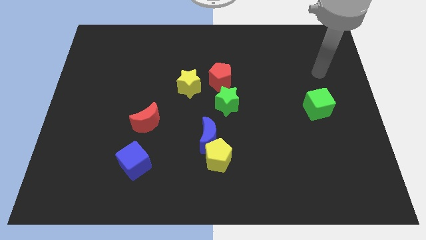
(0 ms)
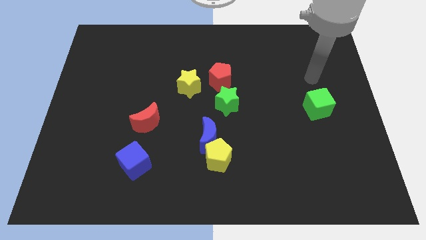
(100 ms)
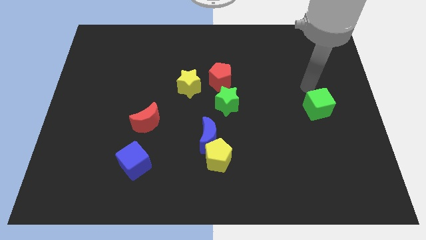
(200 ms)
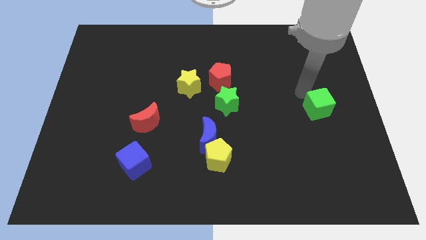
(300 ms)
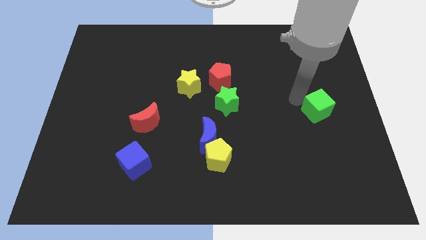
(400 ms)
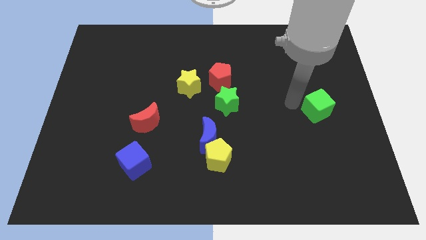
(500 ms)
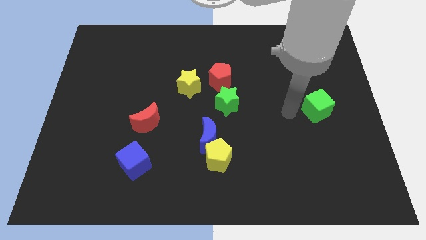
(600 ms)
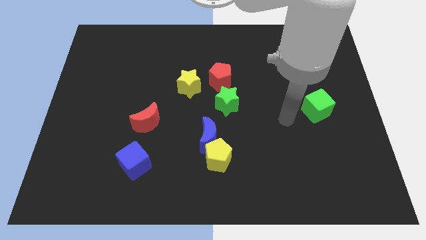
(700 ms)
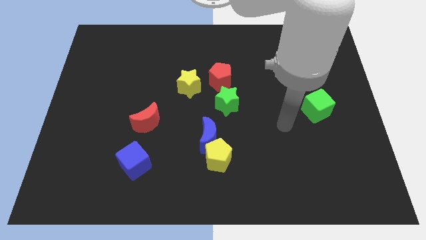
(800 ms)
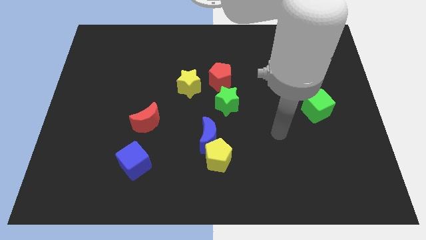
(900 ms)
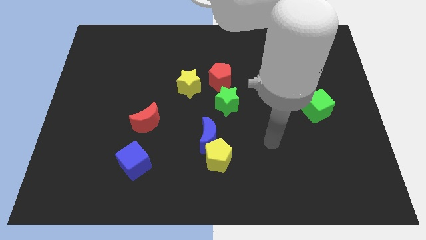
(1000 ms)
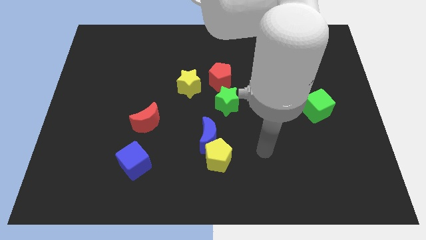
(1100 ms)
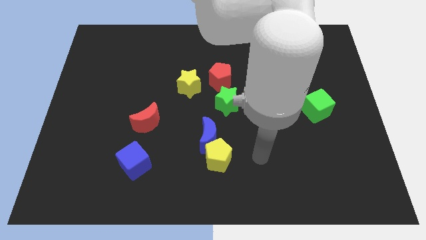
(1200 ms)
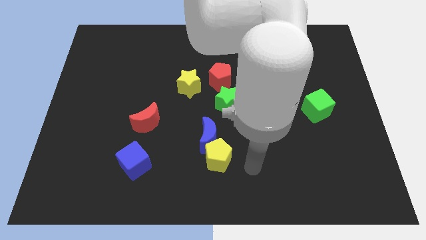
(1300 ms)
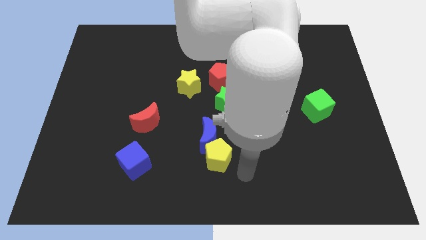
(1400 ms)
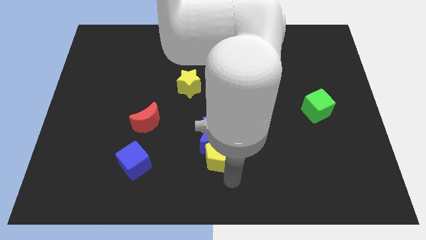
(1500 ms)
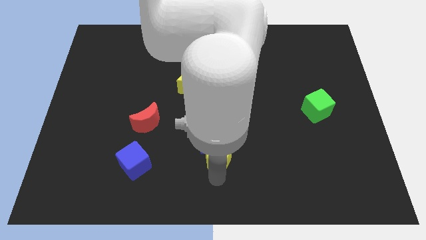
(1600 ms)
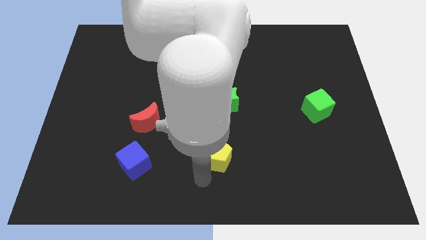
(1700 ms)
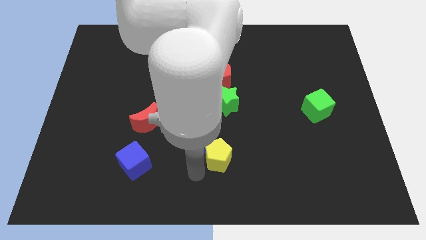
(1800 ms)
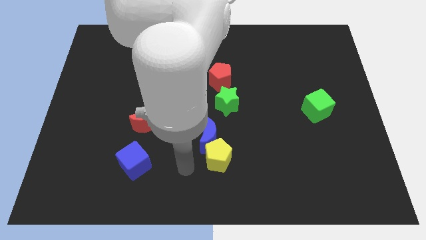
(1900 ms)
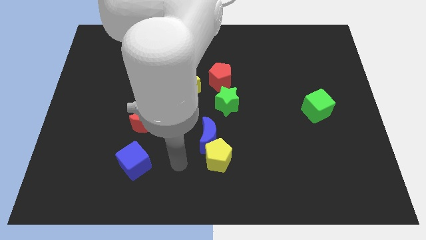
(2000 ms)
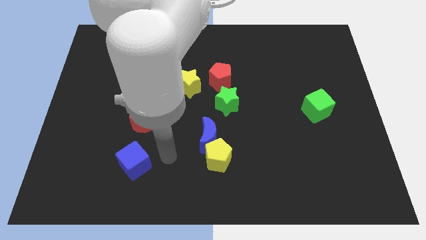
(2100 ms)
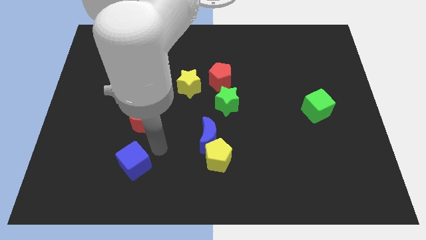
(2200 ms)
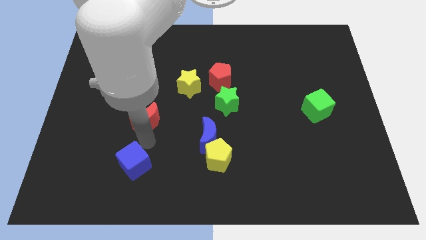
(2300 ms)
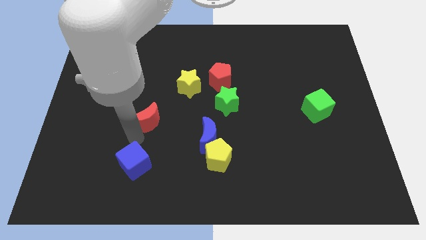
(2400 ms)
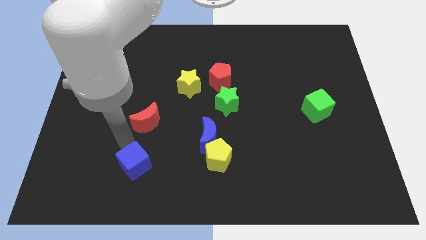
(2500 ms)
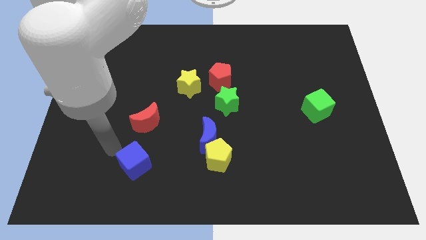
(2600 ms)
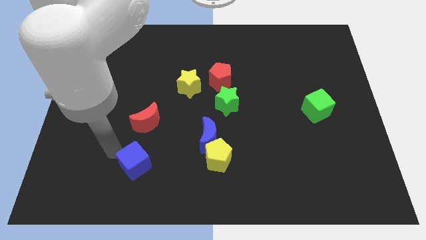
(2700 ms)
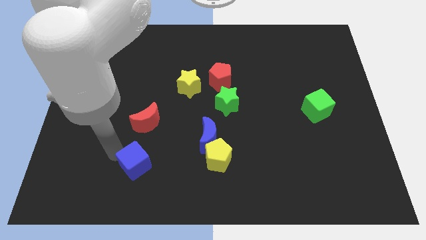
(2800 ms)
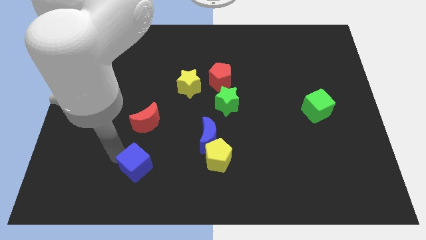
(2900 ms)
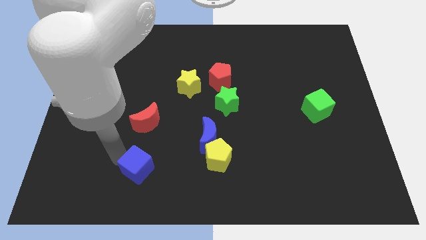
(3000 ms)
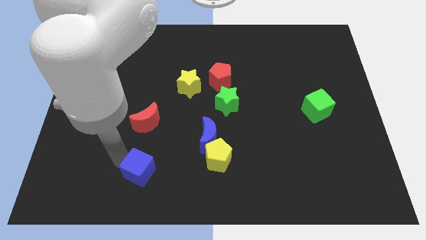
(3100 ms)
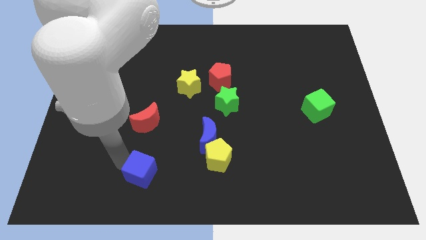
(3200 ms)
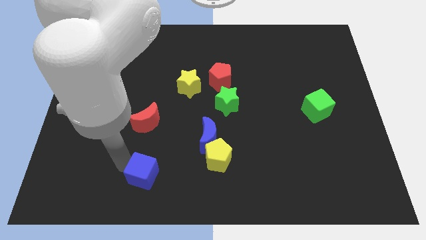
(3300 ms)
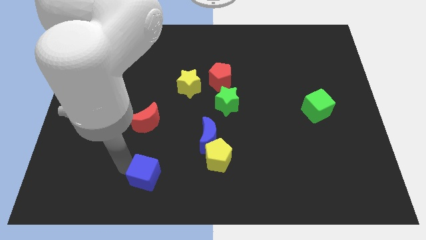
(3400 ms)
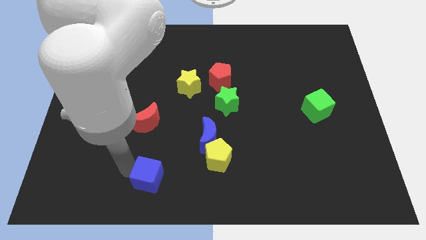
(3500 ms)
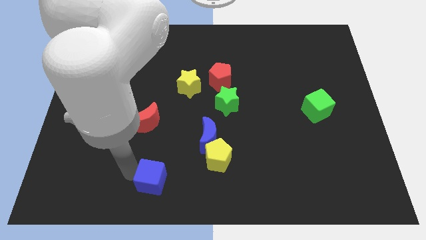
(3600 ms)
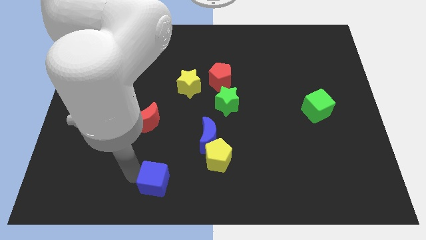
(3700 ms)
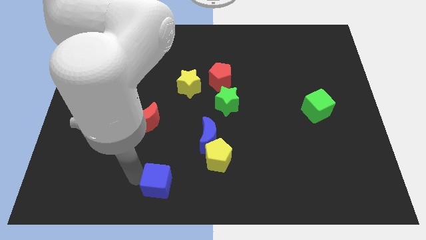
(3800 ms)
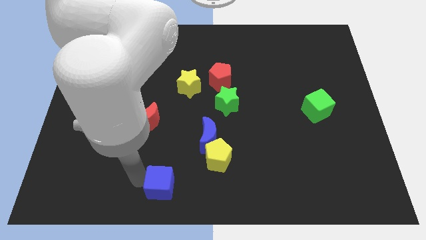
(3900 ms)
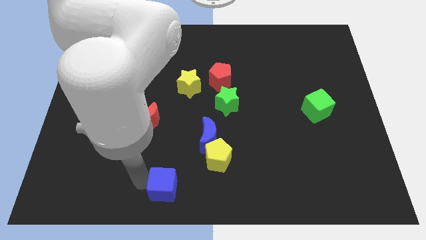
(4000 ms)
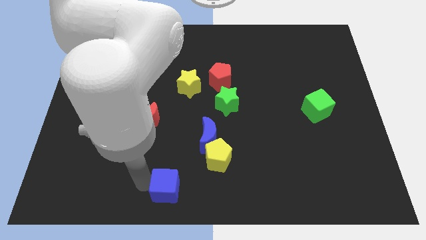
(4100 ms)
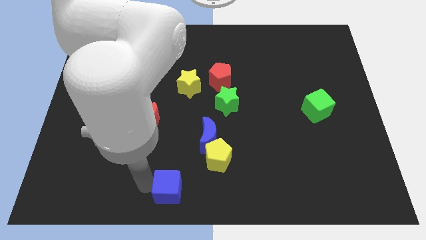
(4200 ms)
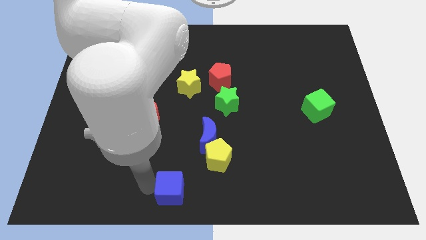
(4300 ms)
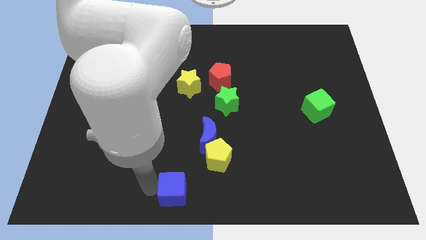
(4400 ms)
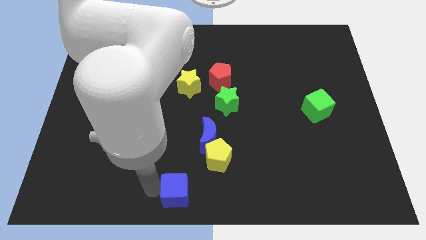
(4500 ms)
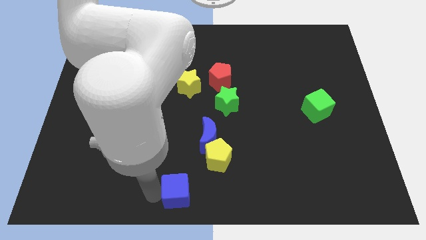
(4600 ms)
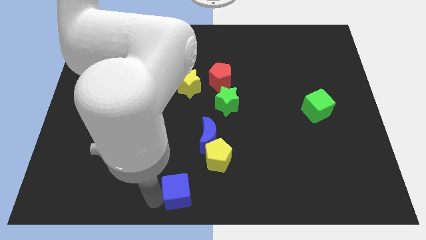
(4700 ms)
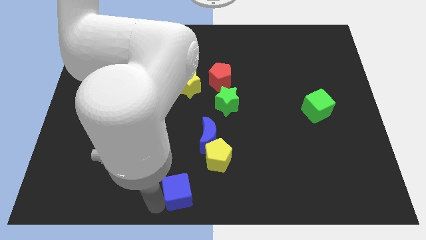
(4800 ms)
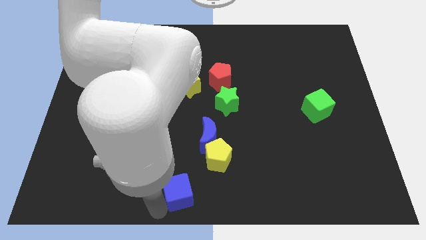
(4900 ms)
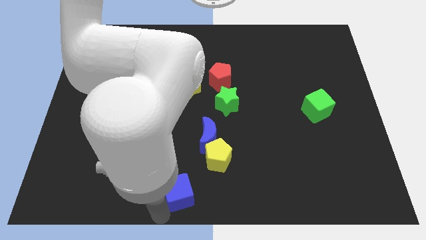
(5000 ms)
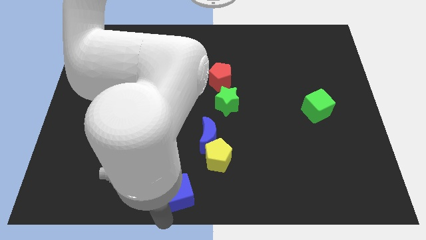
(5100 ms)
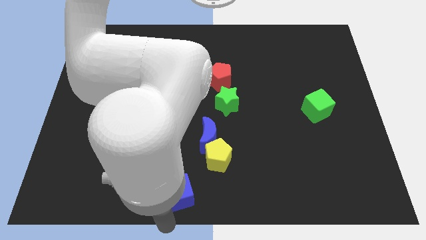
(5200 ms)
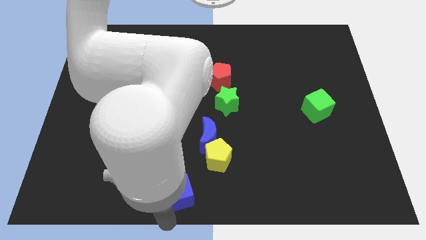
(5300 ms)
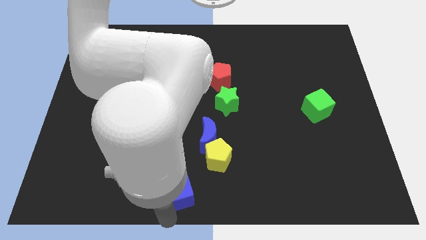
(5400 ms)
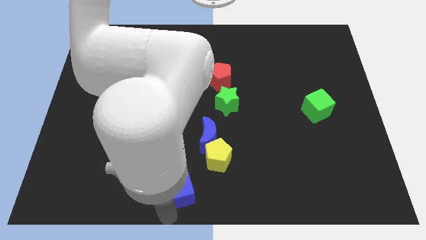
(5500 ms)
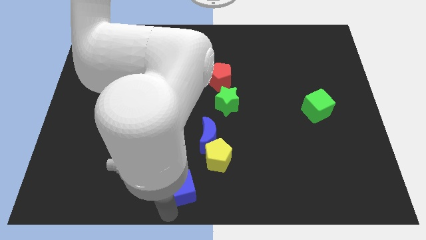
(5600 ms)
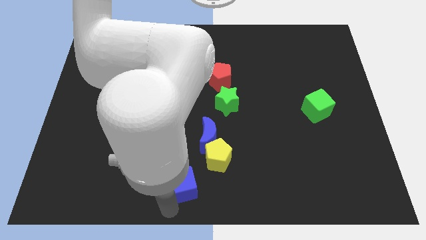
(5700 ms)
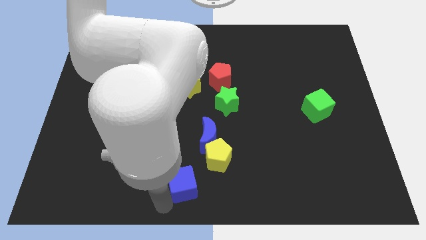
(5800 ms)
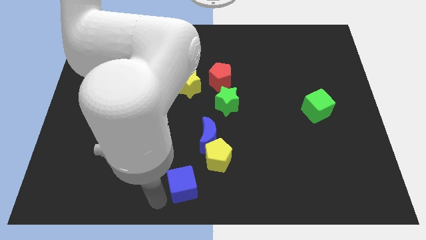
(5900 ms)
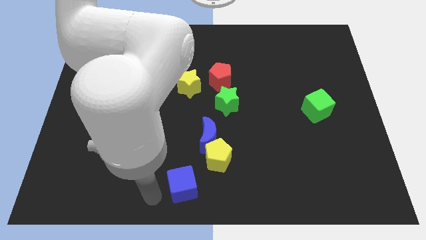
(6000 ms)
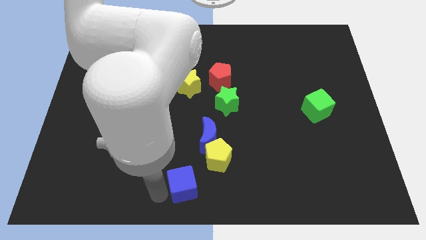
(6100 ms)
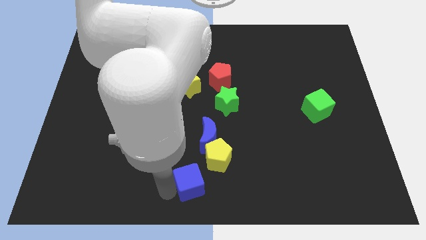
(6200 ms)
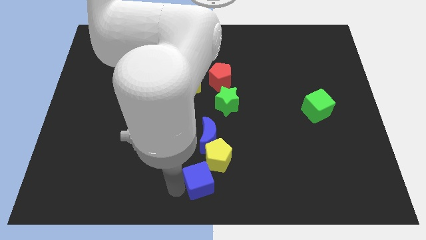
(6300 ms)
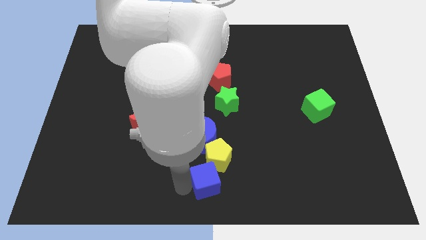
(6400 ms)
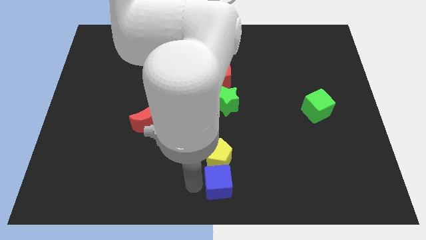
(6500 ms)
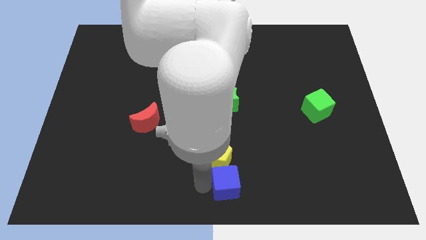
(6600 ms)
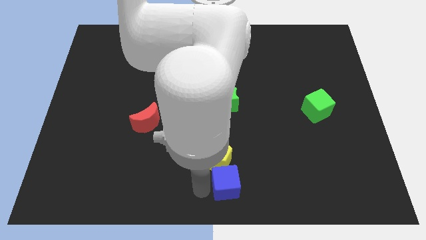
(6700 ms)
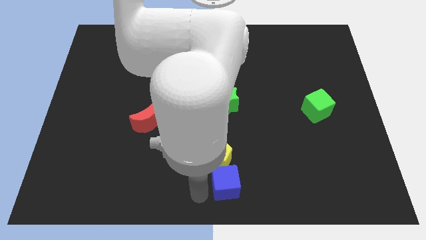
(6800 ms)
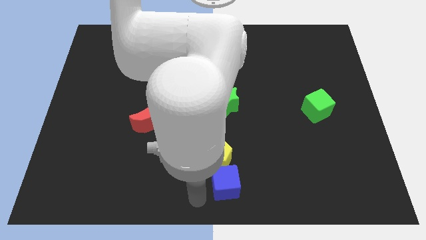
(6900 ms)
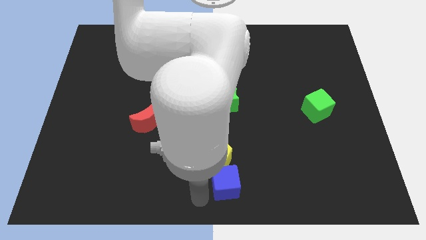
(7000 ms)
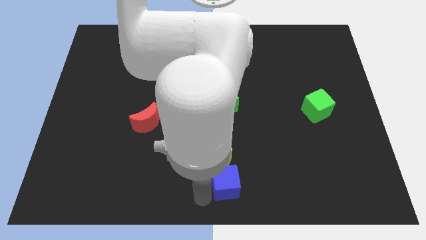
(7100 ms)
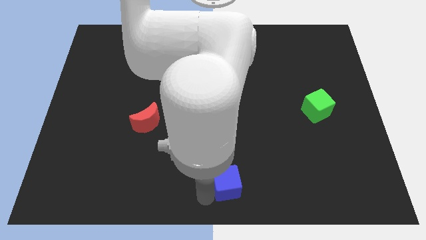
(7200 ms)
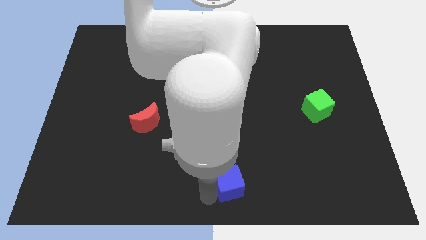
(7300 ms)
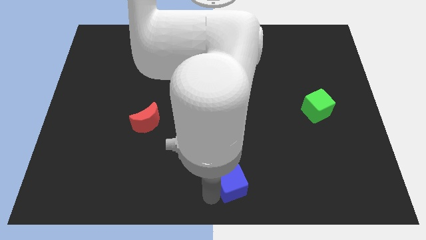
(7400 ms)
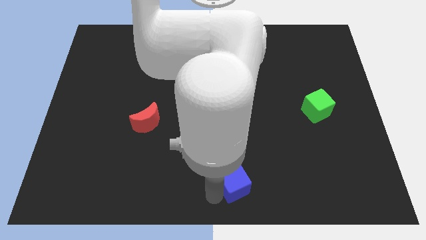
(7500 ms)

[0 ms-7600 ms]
slide the blue cube right

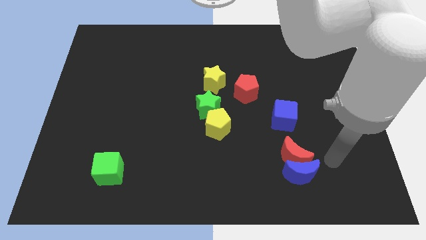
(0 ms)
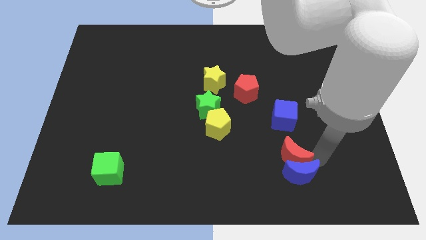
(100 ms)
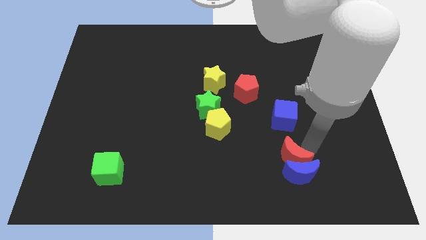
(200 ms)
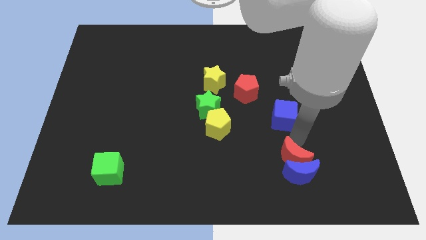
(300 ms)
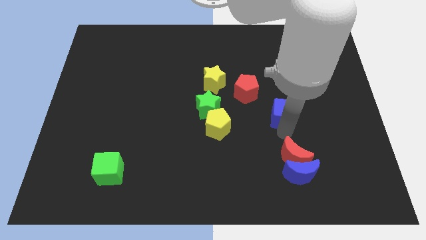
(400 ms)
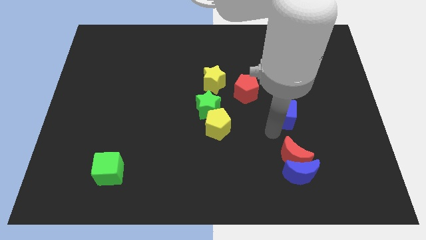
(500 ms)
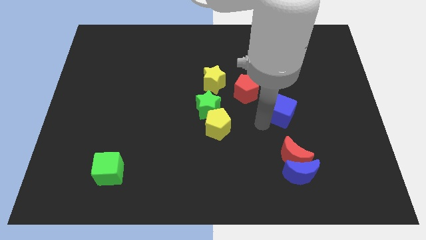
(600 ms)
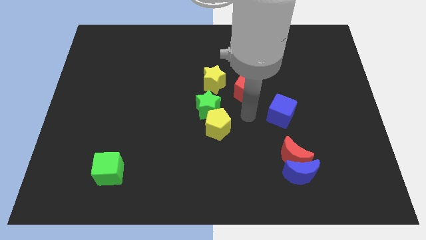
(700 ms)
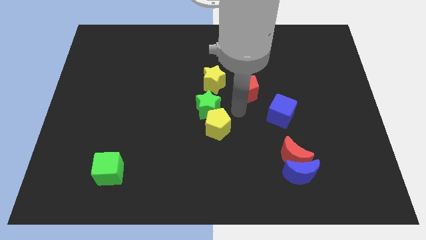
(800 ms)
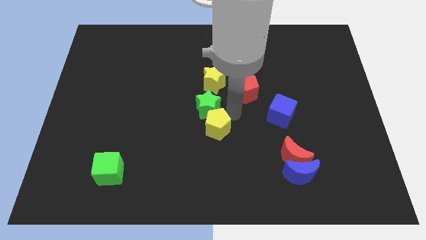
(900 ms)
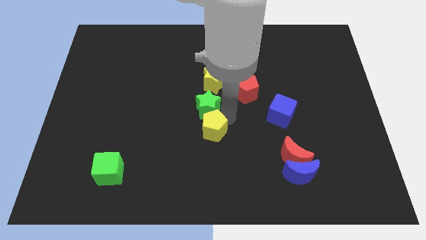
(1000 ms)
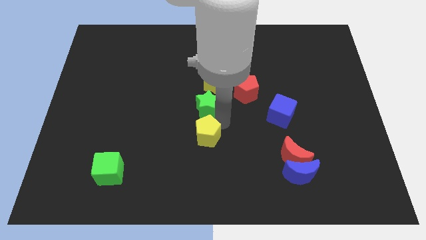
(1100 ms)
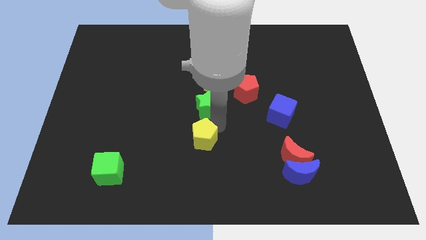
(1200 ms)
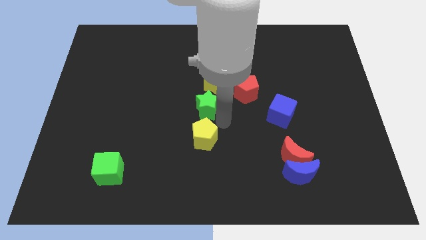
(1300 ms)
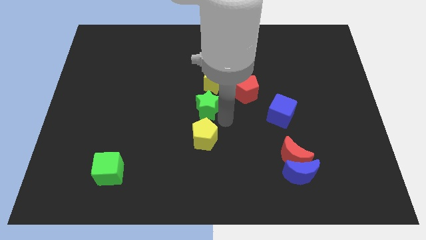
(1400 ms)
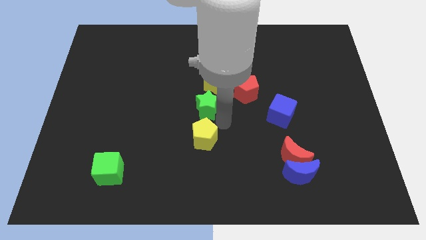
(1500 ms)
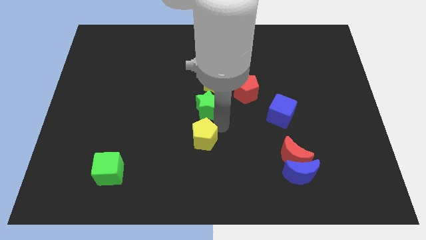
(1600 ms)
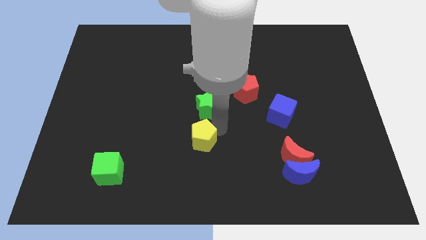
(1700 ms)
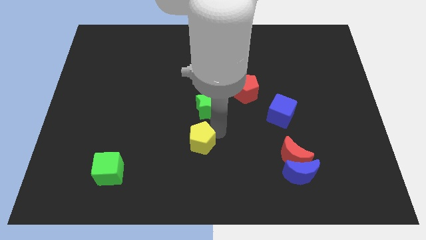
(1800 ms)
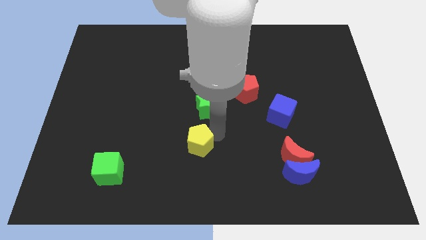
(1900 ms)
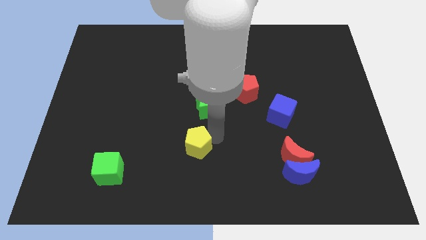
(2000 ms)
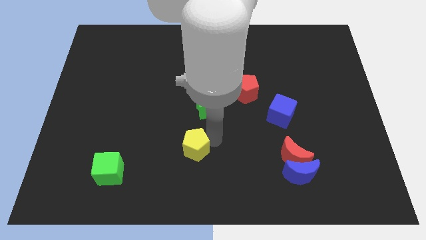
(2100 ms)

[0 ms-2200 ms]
slightly move the yellow pentagon down and left
